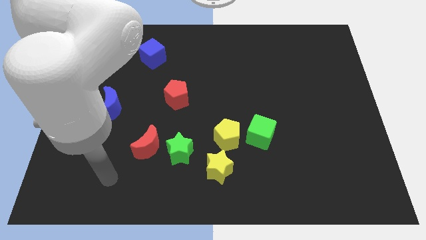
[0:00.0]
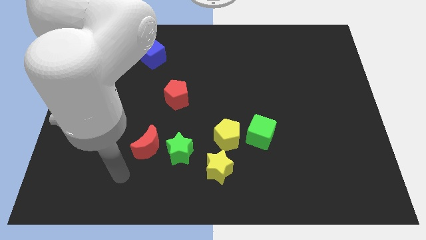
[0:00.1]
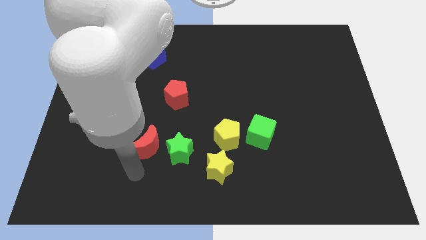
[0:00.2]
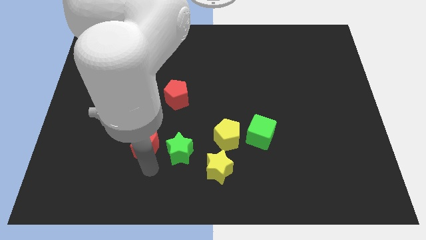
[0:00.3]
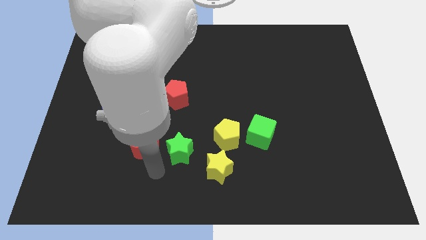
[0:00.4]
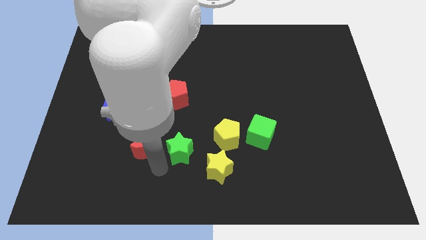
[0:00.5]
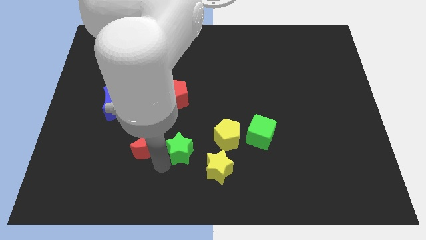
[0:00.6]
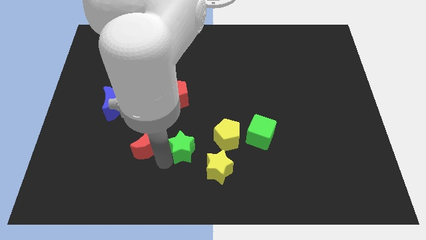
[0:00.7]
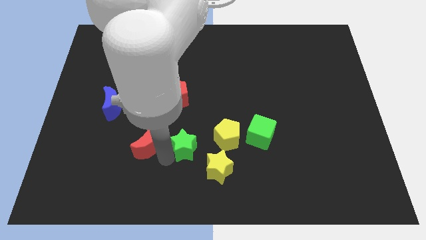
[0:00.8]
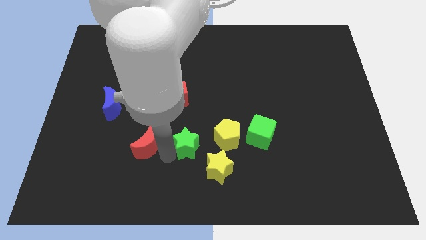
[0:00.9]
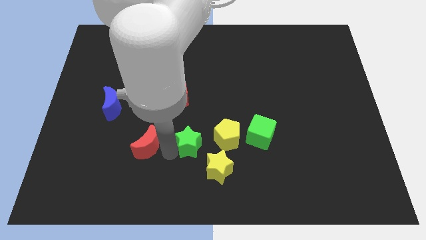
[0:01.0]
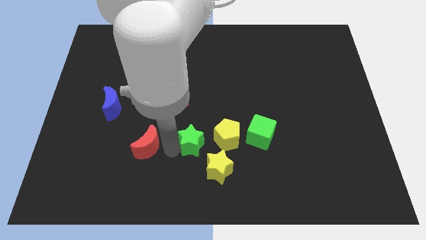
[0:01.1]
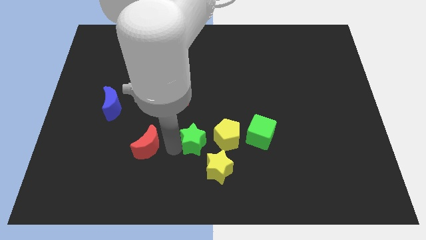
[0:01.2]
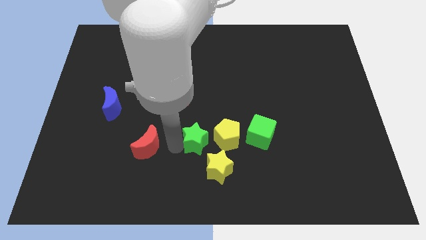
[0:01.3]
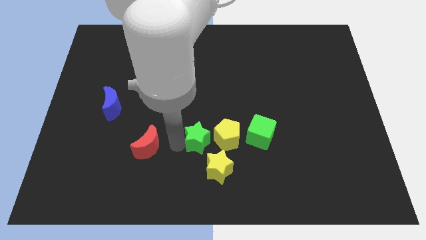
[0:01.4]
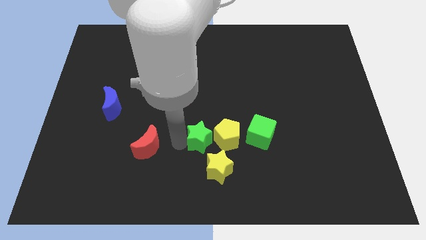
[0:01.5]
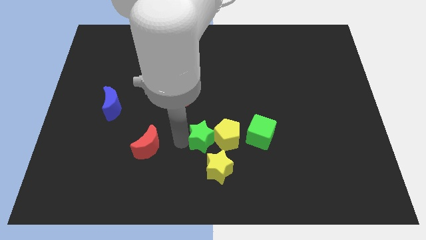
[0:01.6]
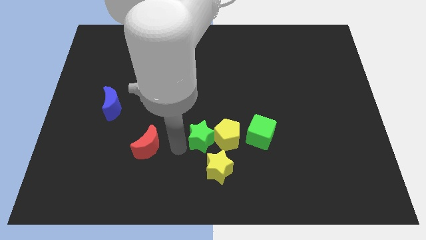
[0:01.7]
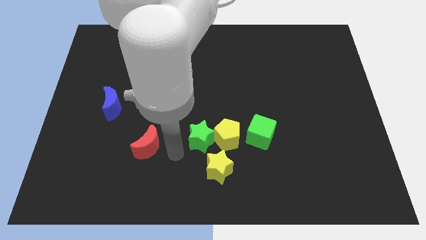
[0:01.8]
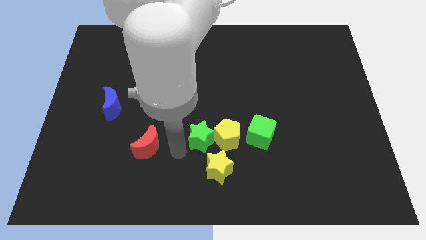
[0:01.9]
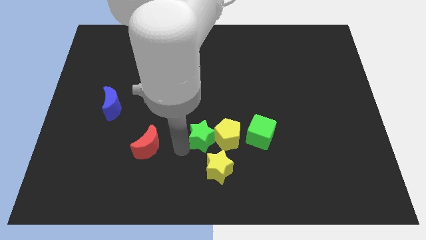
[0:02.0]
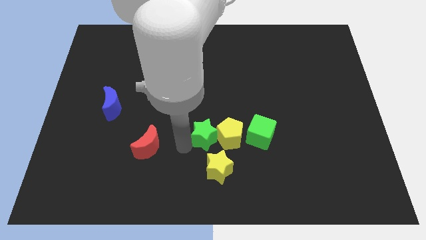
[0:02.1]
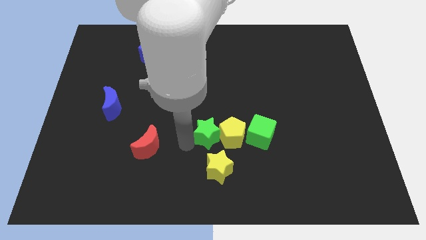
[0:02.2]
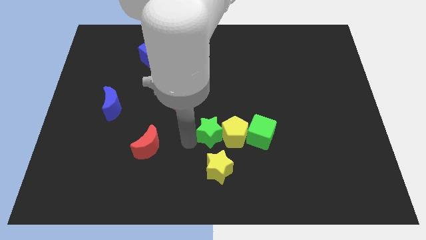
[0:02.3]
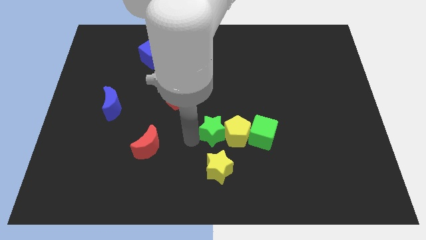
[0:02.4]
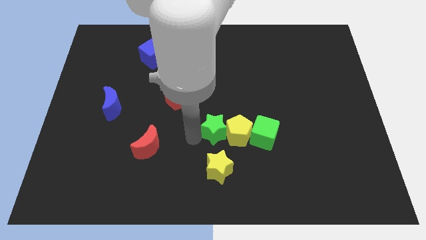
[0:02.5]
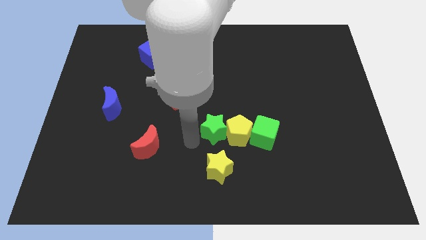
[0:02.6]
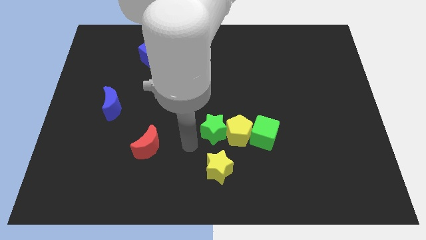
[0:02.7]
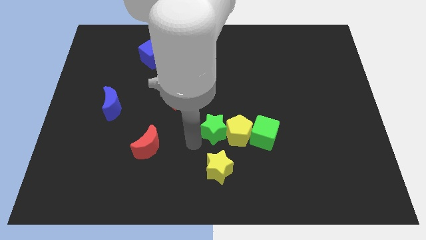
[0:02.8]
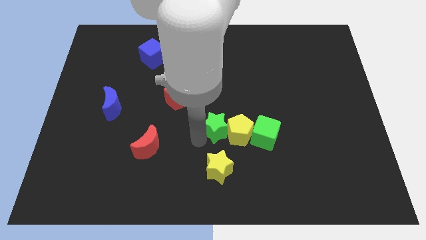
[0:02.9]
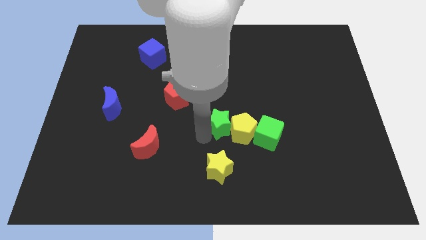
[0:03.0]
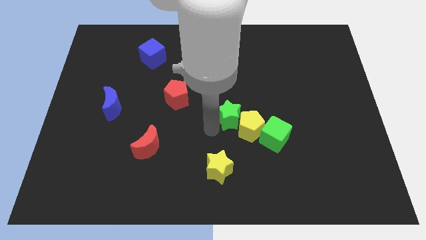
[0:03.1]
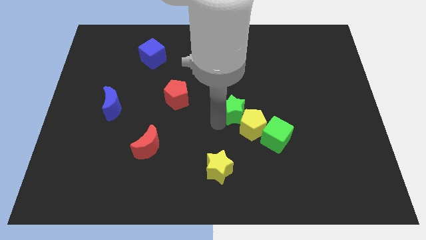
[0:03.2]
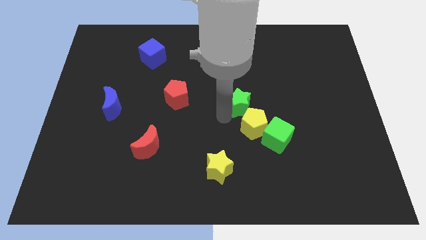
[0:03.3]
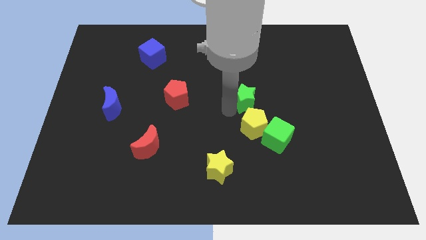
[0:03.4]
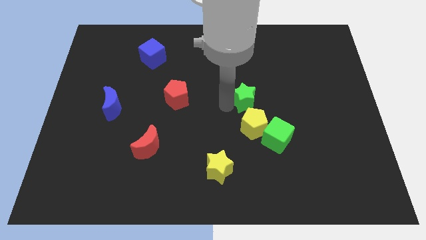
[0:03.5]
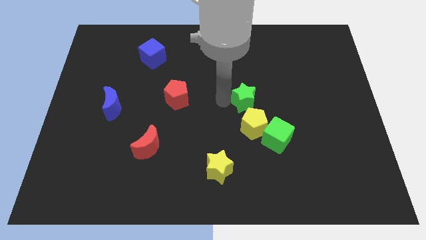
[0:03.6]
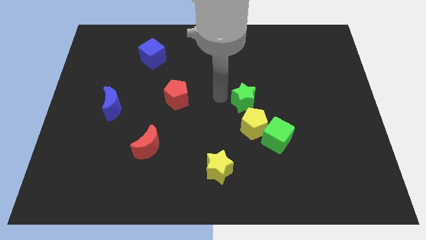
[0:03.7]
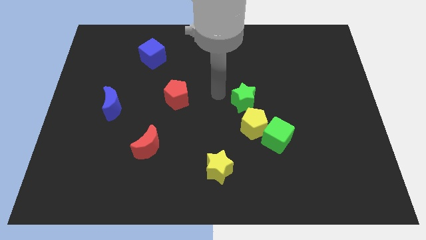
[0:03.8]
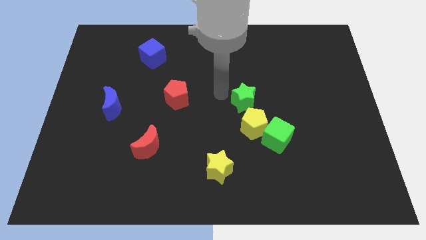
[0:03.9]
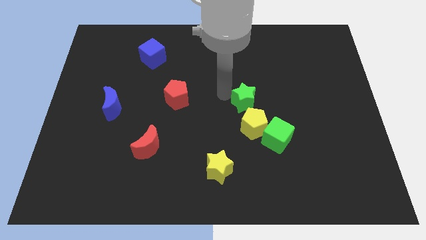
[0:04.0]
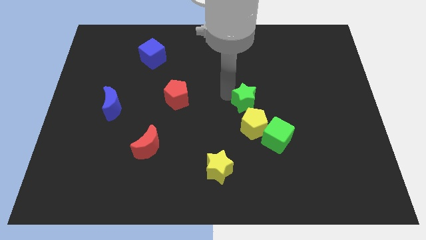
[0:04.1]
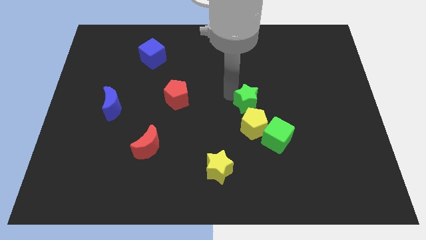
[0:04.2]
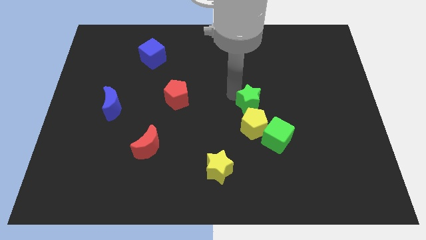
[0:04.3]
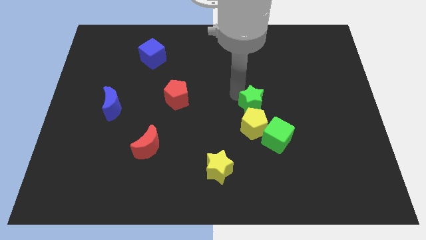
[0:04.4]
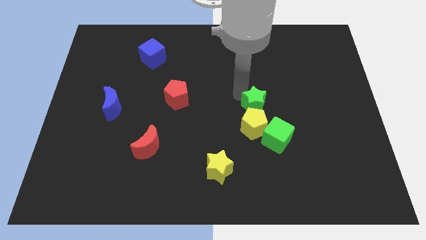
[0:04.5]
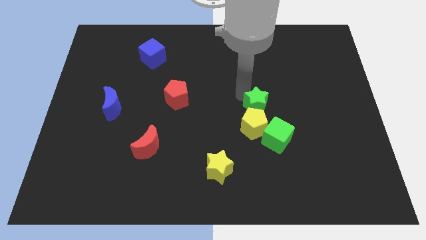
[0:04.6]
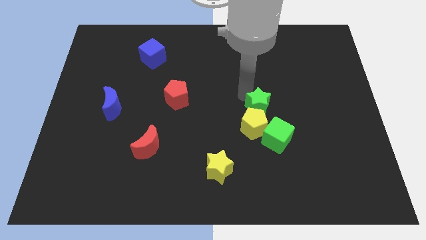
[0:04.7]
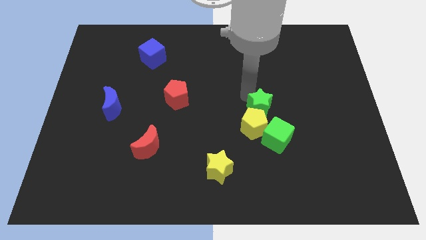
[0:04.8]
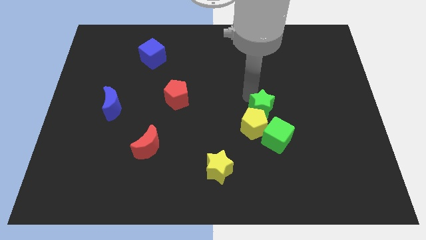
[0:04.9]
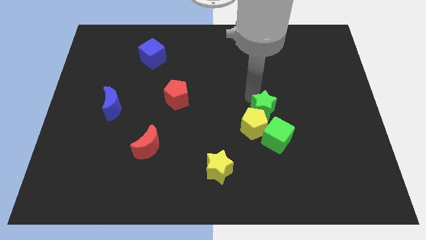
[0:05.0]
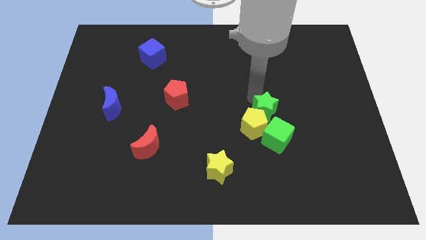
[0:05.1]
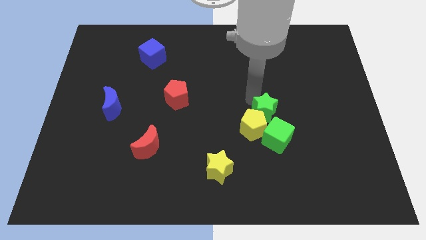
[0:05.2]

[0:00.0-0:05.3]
move the green star diagonally up and to the right of the yellow pentagon

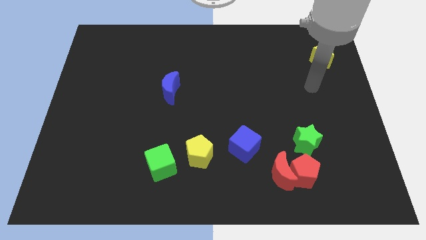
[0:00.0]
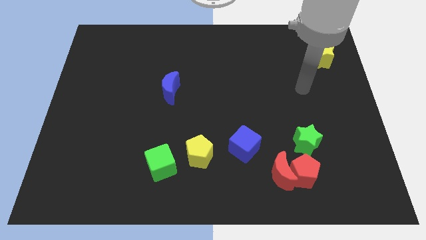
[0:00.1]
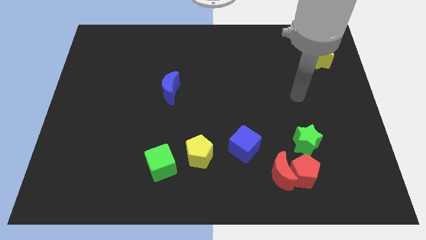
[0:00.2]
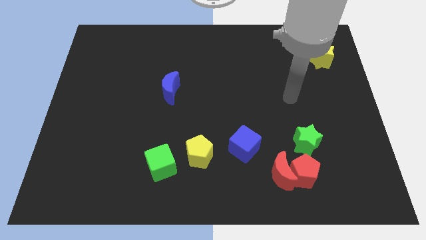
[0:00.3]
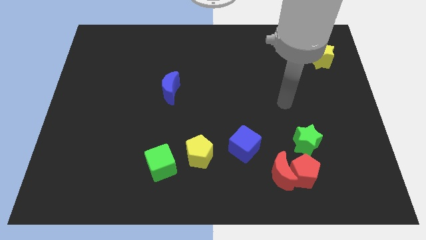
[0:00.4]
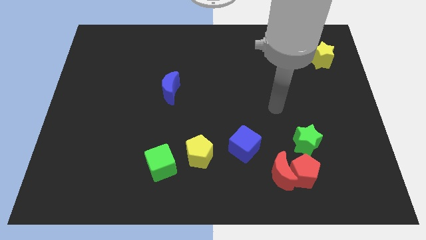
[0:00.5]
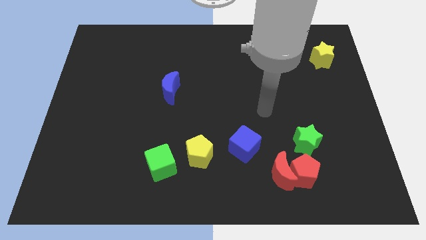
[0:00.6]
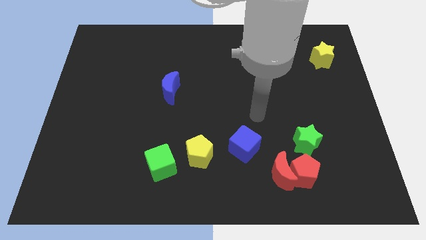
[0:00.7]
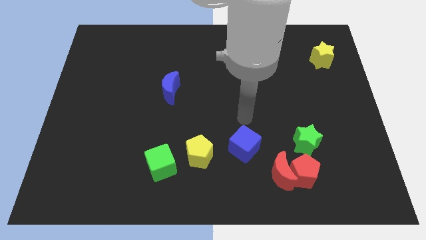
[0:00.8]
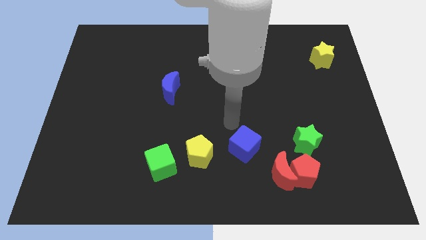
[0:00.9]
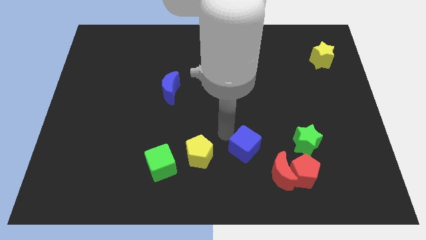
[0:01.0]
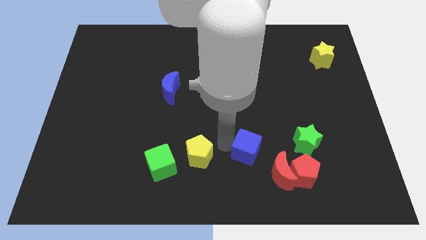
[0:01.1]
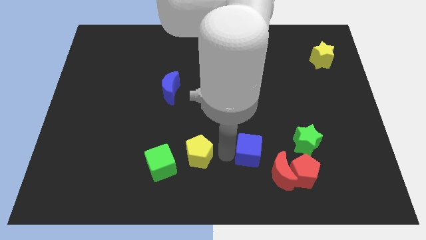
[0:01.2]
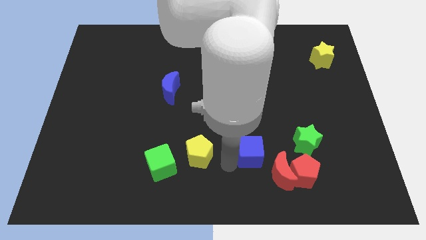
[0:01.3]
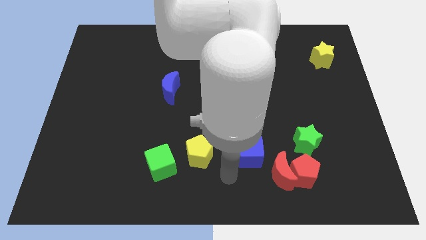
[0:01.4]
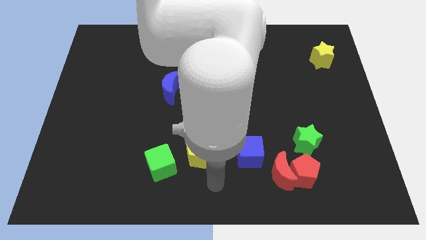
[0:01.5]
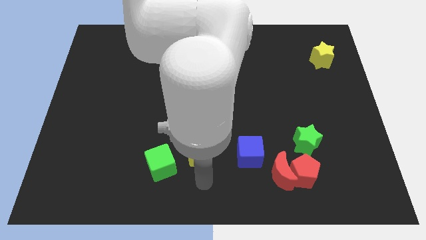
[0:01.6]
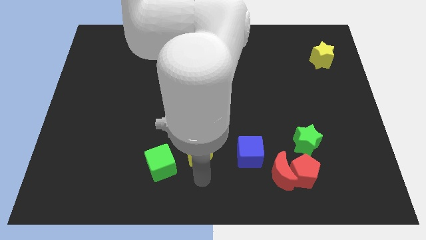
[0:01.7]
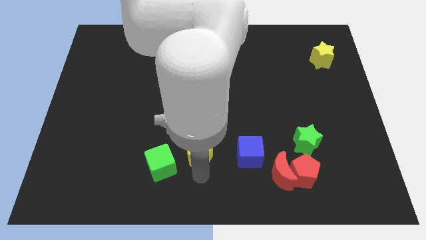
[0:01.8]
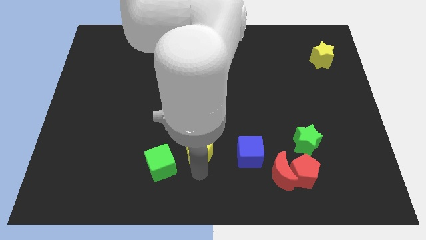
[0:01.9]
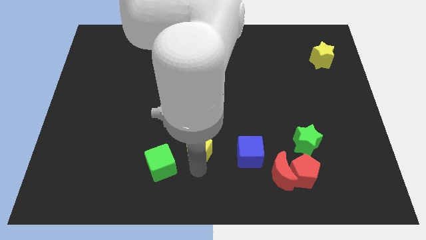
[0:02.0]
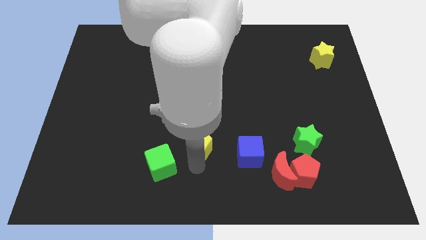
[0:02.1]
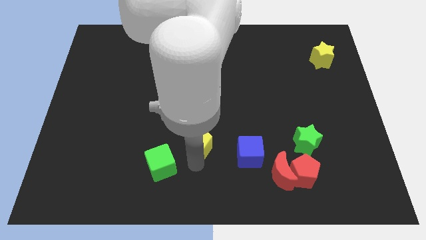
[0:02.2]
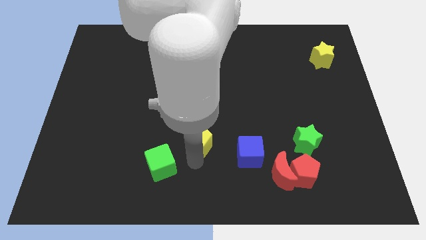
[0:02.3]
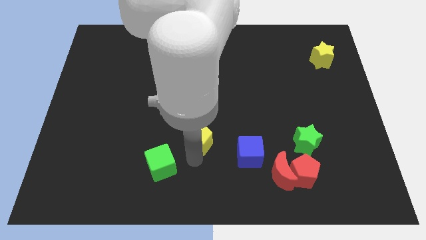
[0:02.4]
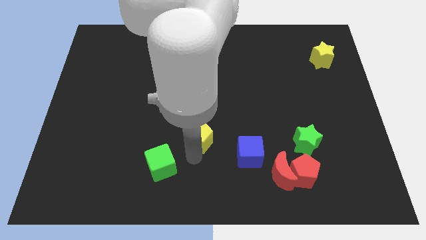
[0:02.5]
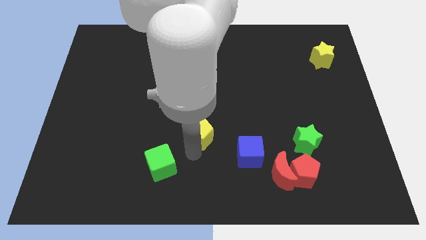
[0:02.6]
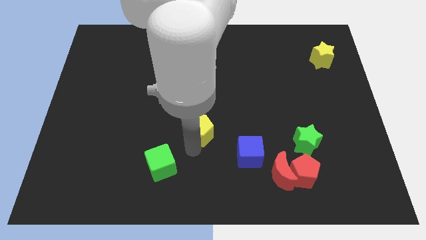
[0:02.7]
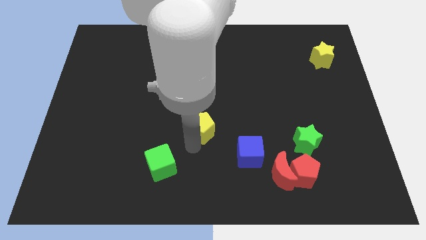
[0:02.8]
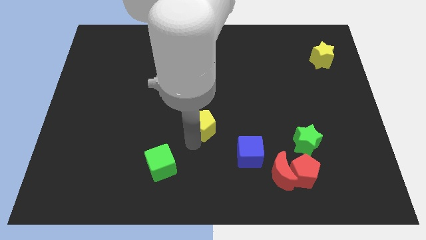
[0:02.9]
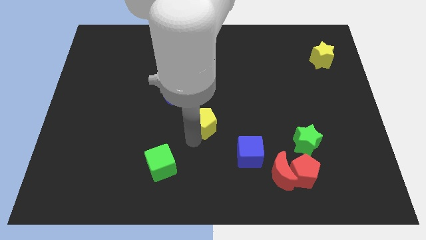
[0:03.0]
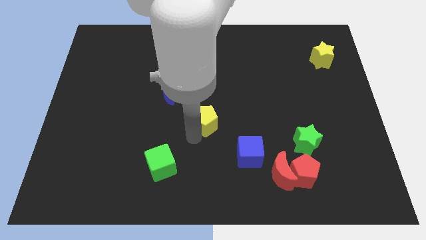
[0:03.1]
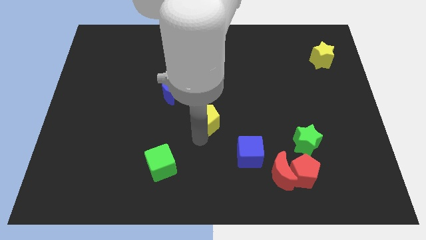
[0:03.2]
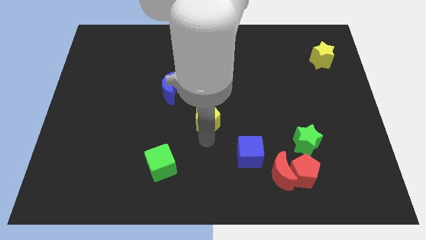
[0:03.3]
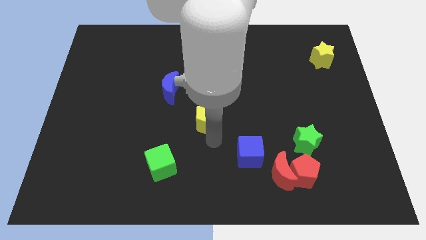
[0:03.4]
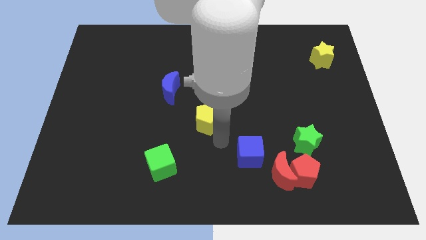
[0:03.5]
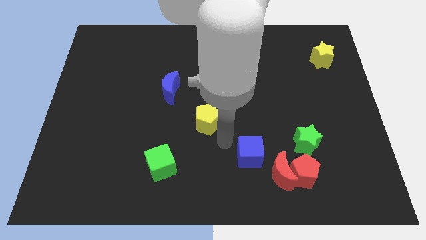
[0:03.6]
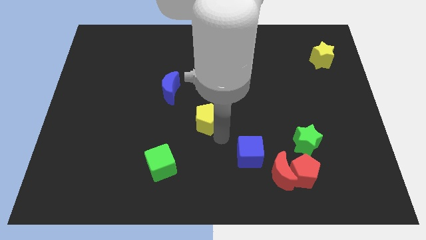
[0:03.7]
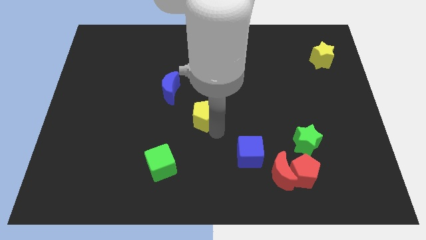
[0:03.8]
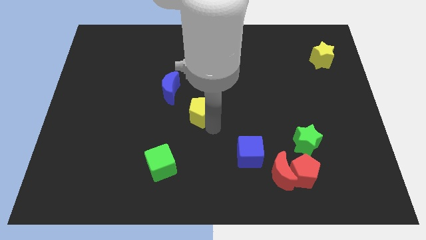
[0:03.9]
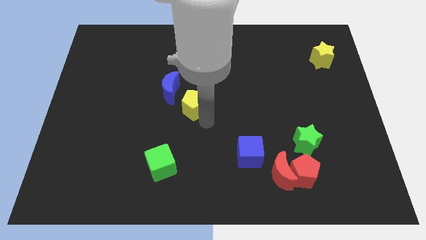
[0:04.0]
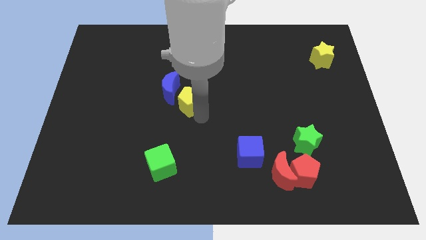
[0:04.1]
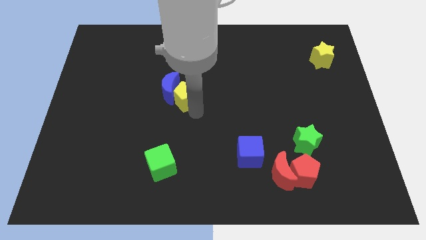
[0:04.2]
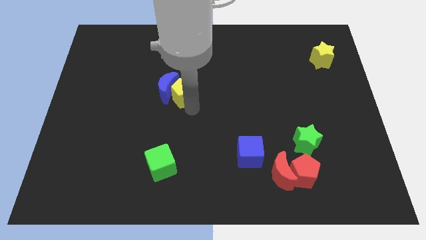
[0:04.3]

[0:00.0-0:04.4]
move the yellow pentagon to the top right side of the blue moon
